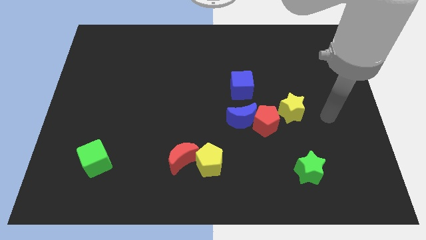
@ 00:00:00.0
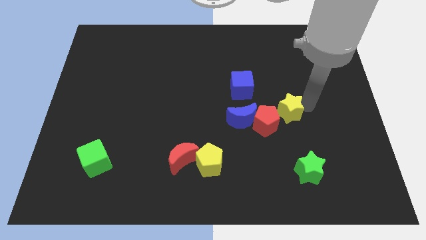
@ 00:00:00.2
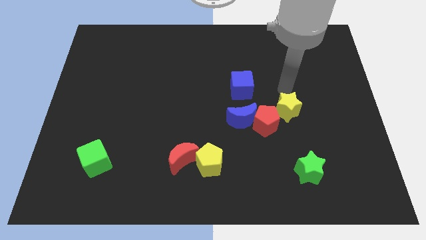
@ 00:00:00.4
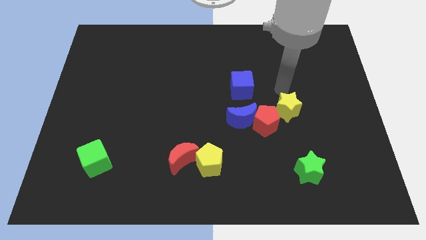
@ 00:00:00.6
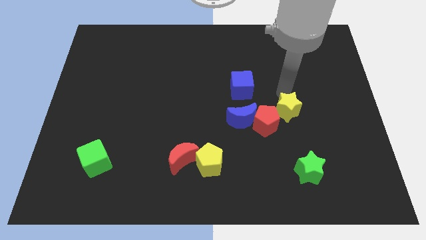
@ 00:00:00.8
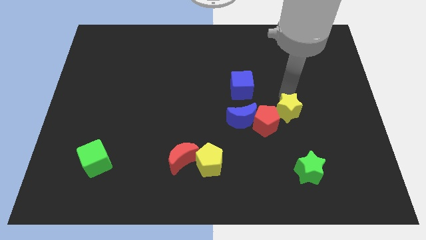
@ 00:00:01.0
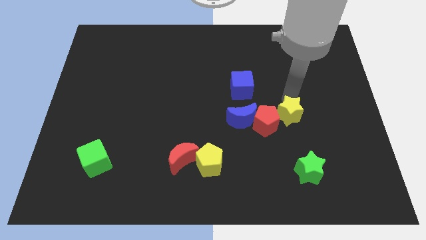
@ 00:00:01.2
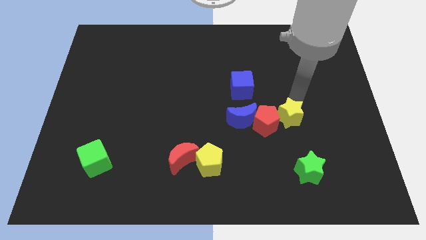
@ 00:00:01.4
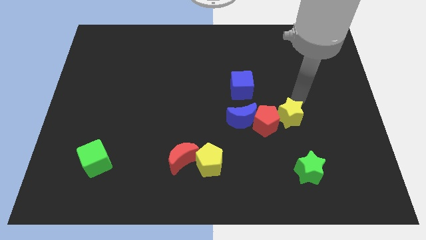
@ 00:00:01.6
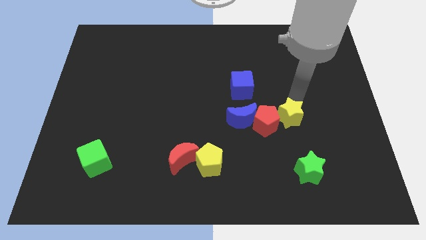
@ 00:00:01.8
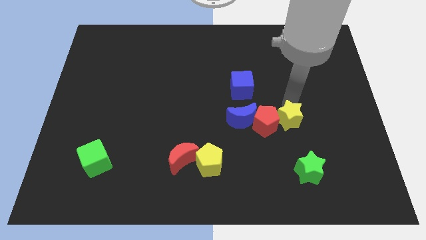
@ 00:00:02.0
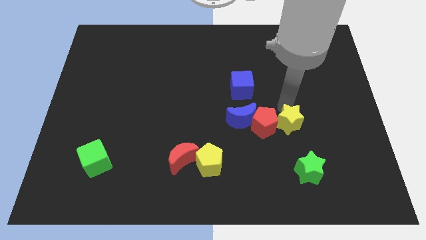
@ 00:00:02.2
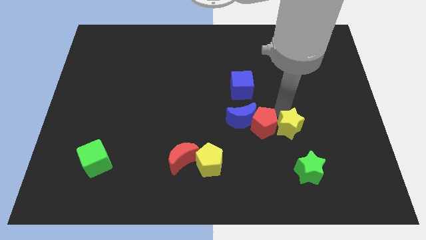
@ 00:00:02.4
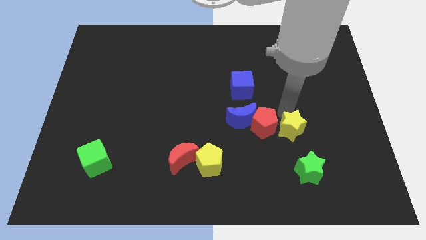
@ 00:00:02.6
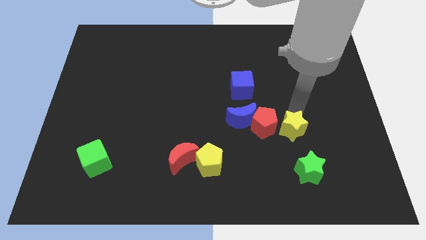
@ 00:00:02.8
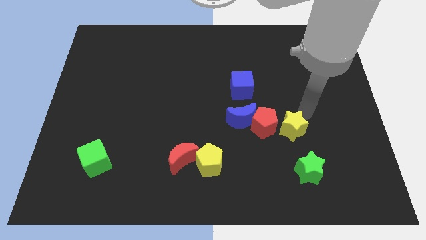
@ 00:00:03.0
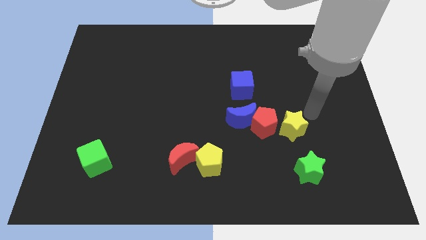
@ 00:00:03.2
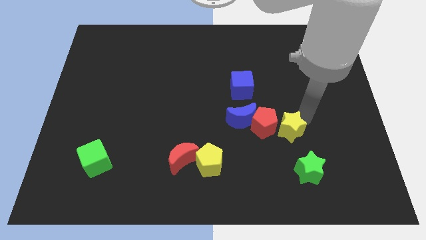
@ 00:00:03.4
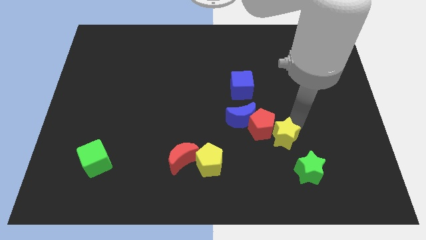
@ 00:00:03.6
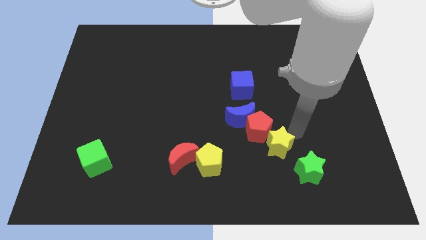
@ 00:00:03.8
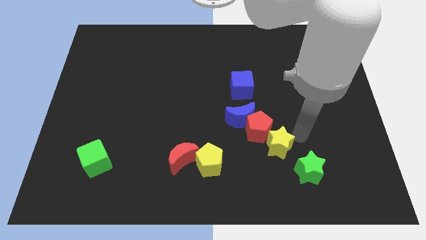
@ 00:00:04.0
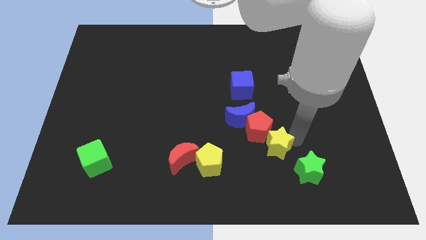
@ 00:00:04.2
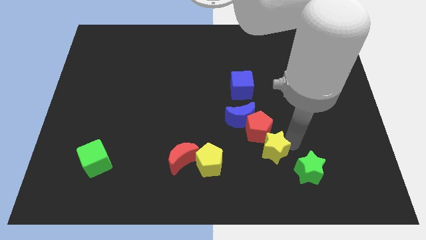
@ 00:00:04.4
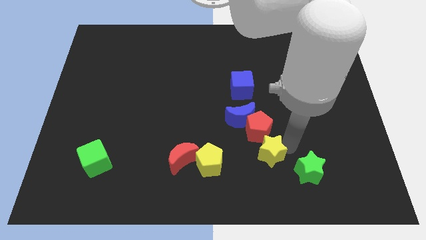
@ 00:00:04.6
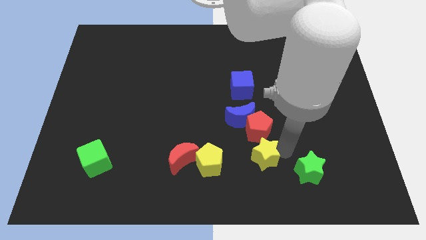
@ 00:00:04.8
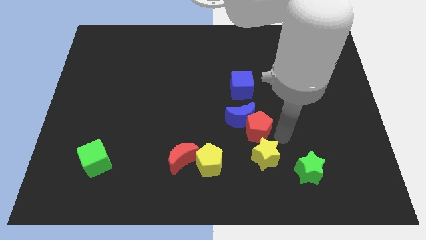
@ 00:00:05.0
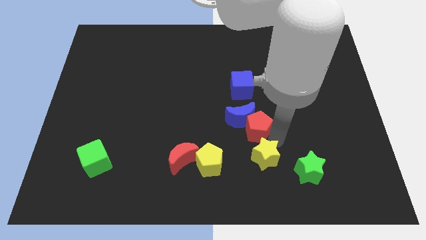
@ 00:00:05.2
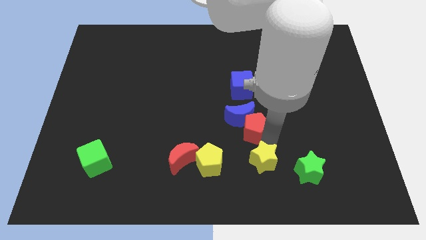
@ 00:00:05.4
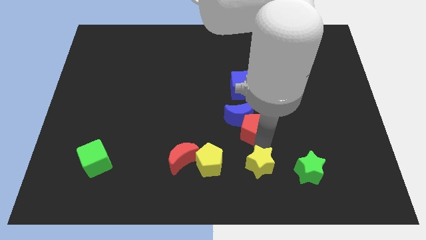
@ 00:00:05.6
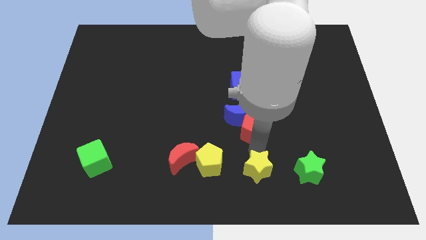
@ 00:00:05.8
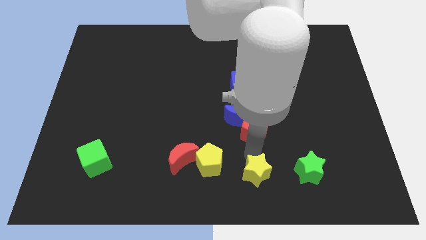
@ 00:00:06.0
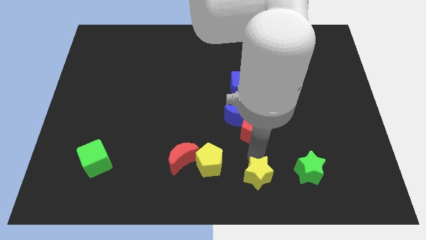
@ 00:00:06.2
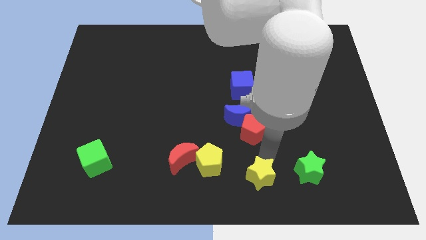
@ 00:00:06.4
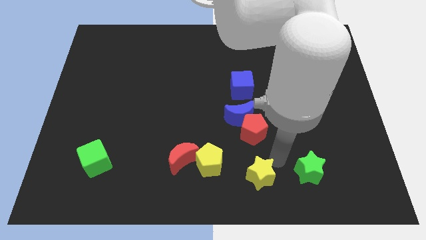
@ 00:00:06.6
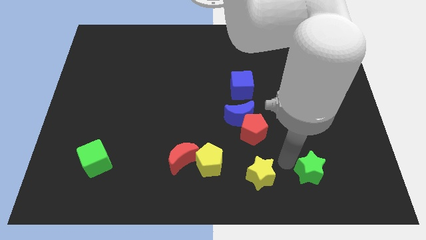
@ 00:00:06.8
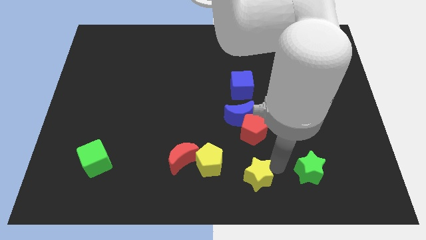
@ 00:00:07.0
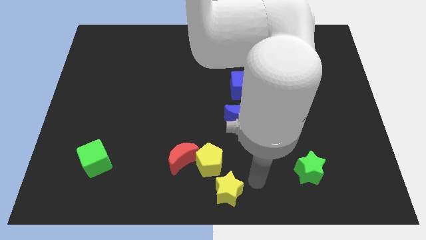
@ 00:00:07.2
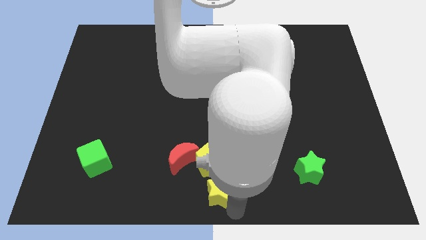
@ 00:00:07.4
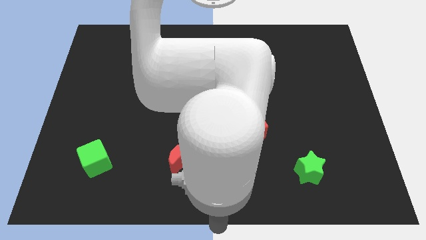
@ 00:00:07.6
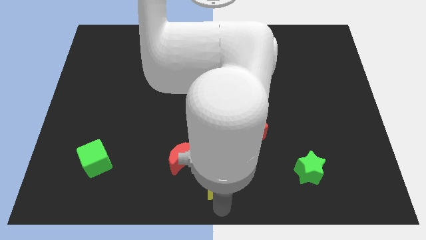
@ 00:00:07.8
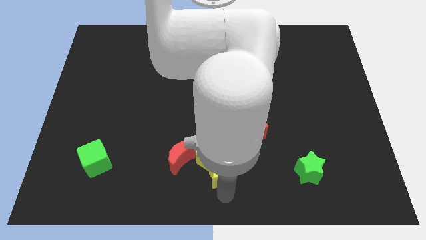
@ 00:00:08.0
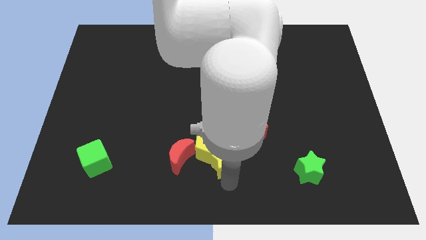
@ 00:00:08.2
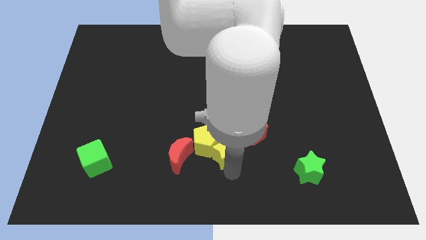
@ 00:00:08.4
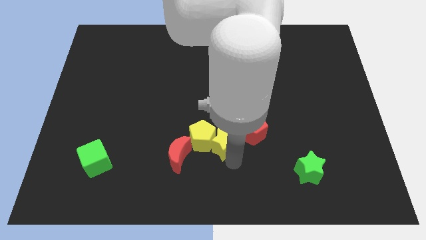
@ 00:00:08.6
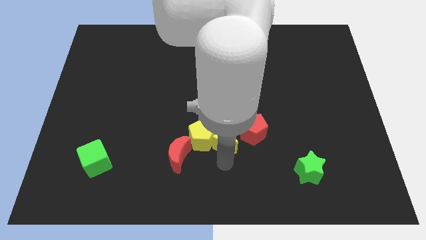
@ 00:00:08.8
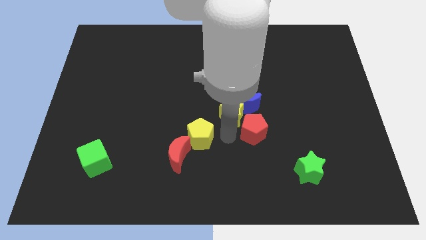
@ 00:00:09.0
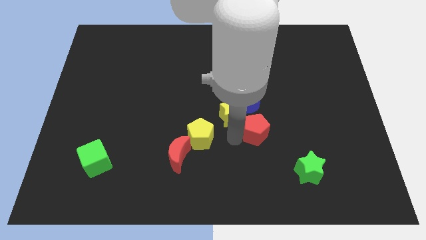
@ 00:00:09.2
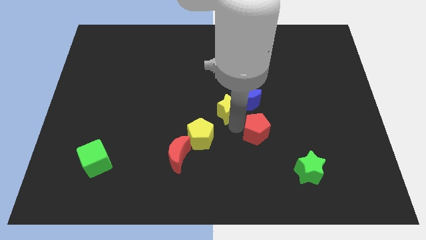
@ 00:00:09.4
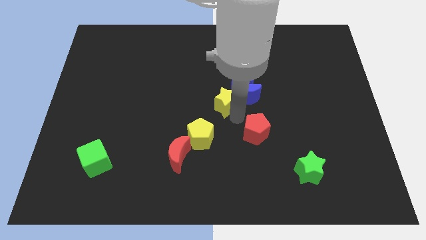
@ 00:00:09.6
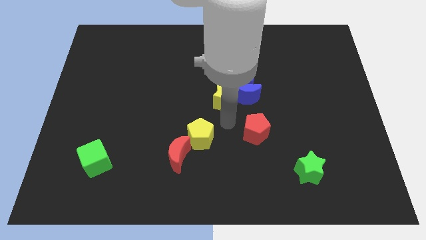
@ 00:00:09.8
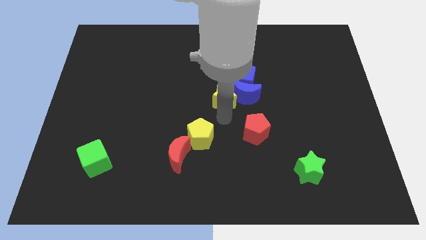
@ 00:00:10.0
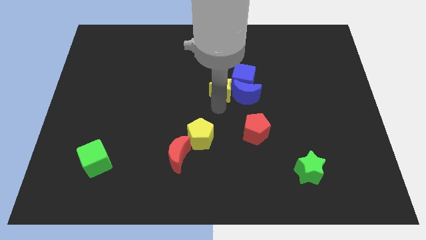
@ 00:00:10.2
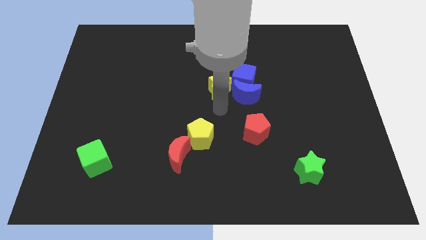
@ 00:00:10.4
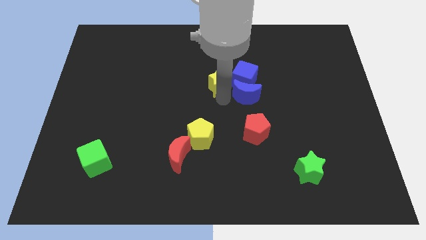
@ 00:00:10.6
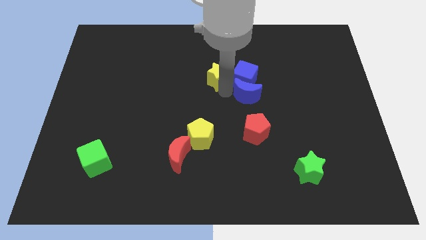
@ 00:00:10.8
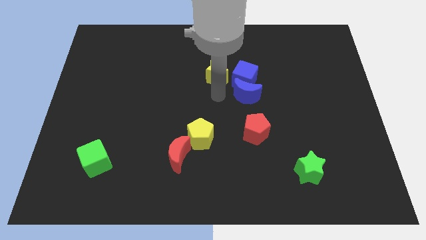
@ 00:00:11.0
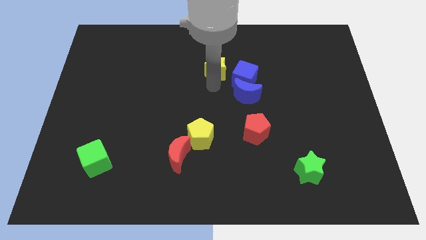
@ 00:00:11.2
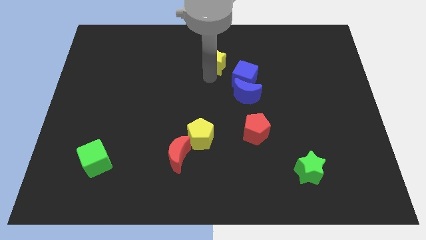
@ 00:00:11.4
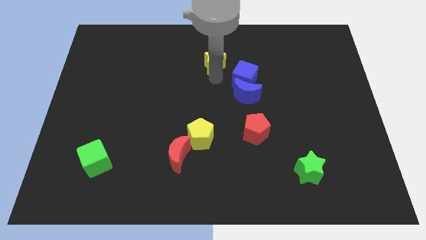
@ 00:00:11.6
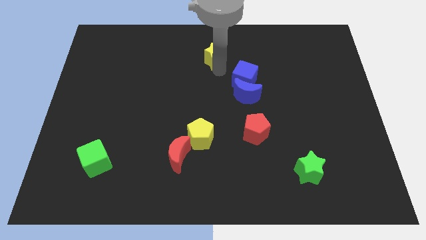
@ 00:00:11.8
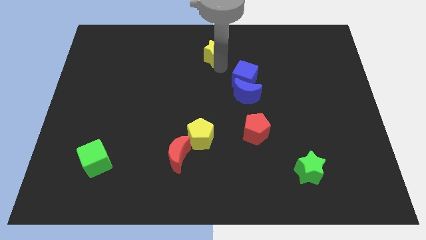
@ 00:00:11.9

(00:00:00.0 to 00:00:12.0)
put the yellow star to the towards your base

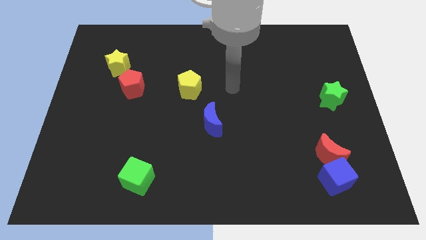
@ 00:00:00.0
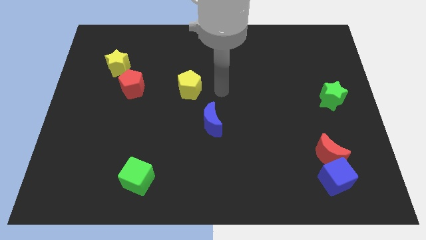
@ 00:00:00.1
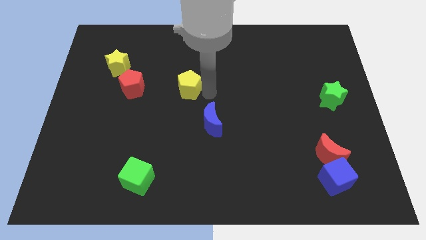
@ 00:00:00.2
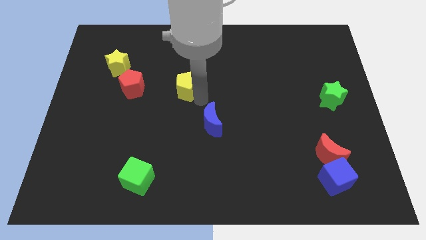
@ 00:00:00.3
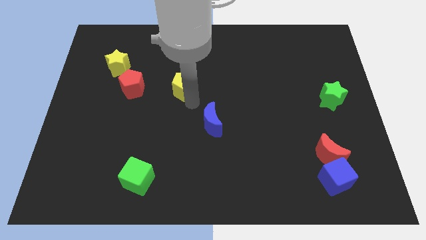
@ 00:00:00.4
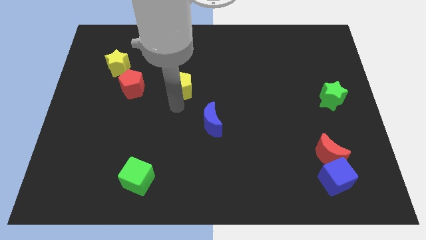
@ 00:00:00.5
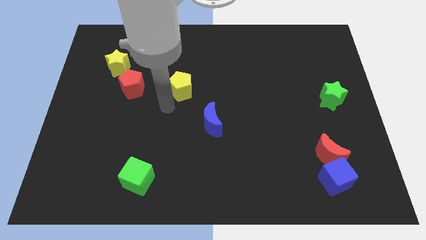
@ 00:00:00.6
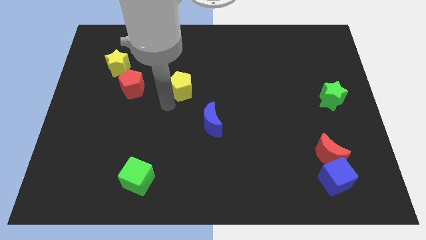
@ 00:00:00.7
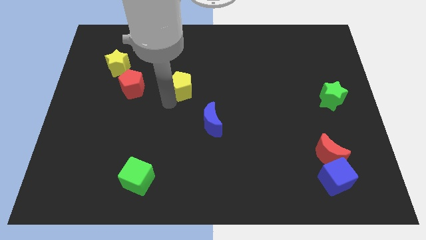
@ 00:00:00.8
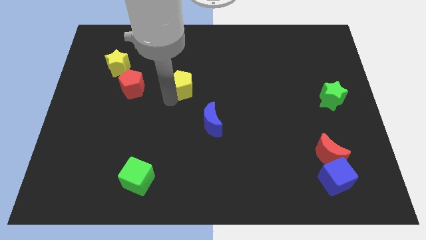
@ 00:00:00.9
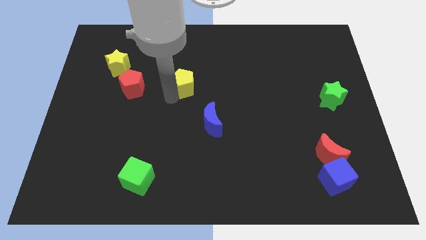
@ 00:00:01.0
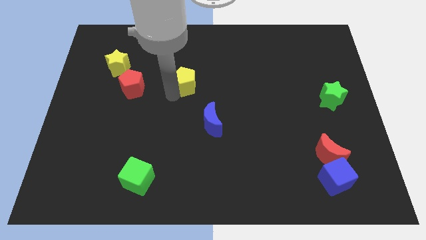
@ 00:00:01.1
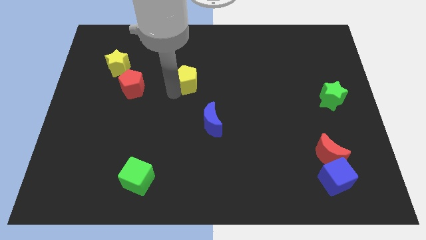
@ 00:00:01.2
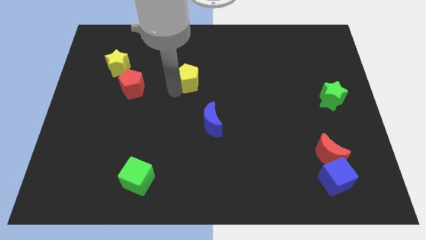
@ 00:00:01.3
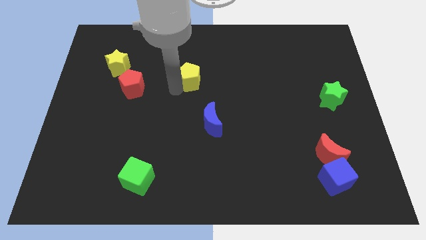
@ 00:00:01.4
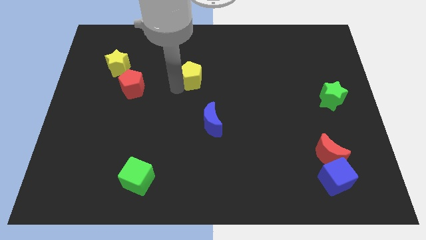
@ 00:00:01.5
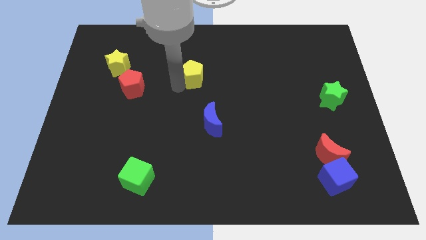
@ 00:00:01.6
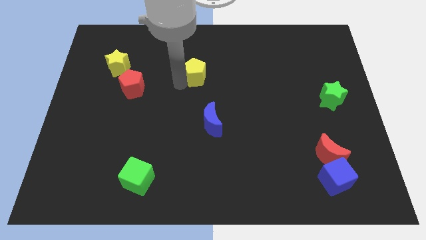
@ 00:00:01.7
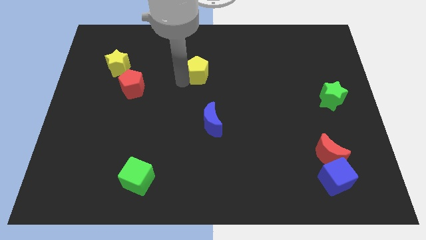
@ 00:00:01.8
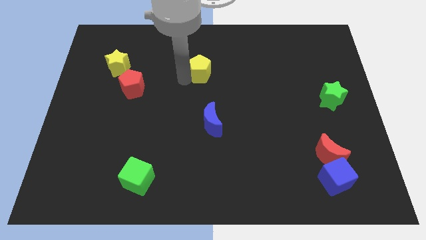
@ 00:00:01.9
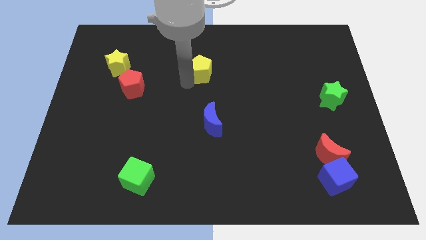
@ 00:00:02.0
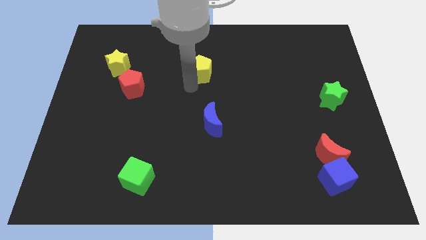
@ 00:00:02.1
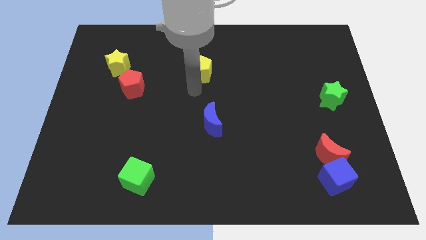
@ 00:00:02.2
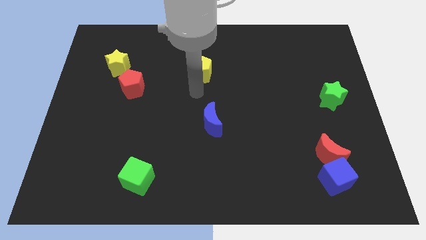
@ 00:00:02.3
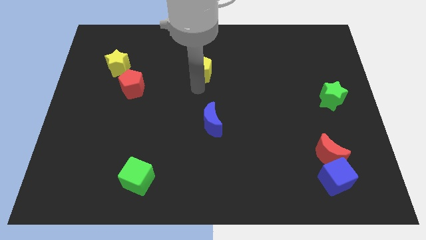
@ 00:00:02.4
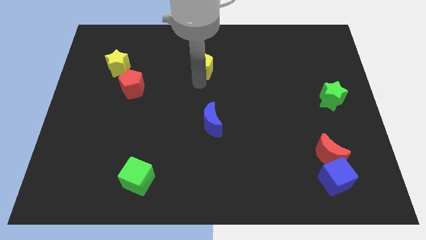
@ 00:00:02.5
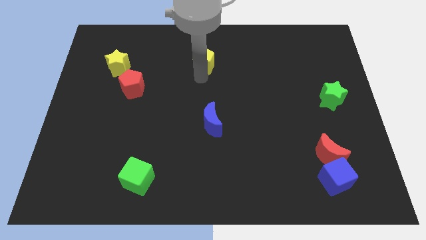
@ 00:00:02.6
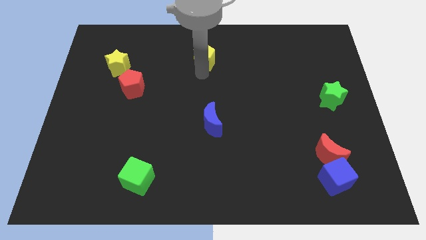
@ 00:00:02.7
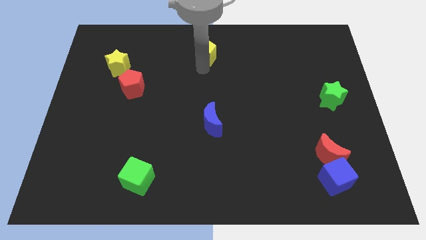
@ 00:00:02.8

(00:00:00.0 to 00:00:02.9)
push the yellow pentagon to the top
